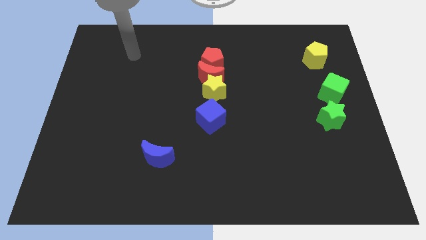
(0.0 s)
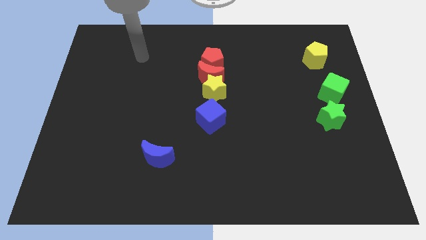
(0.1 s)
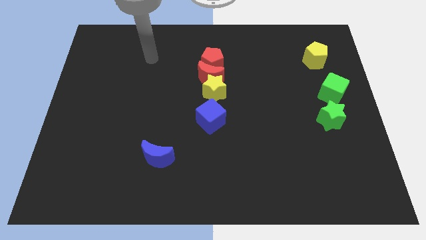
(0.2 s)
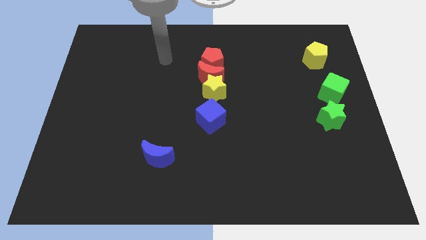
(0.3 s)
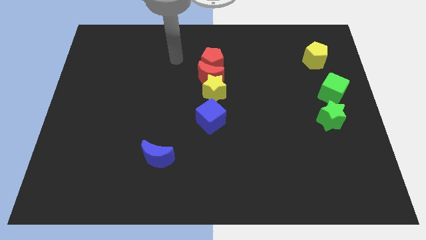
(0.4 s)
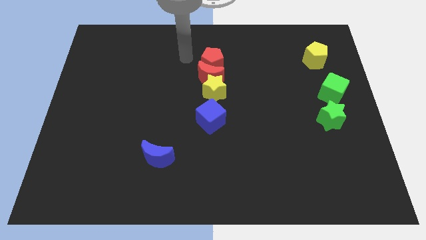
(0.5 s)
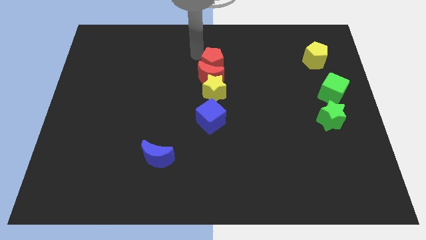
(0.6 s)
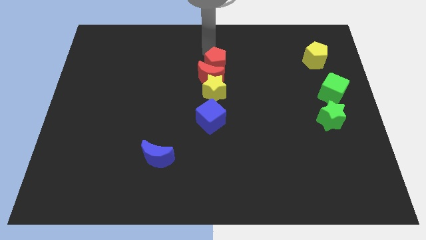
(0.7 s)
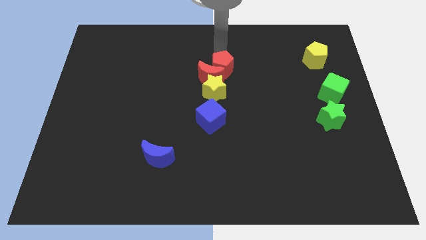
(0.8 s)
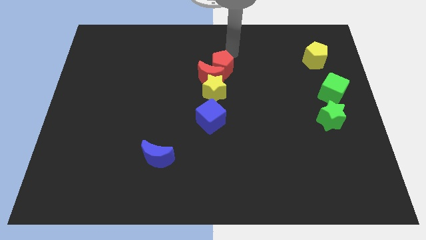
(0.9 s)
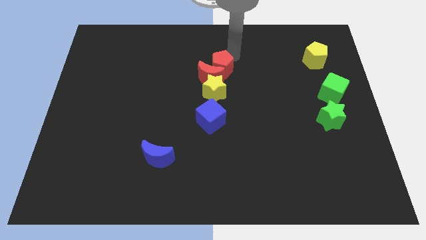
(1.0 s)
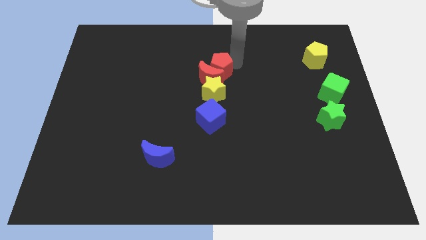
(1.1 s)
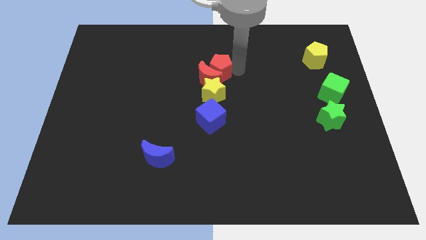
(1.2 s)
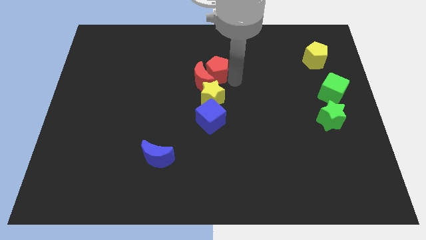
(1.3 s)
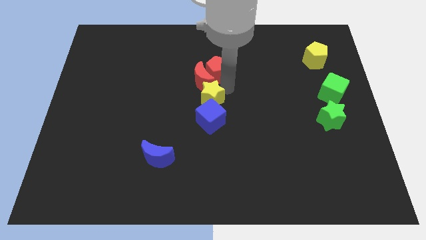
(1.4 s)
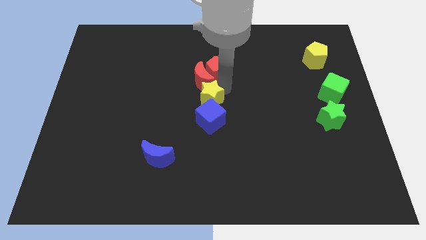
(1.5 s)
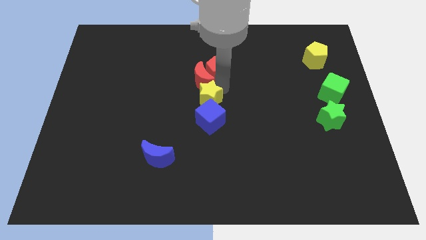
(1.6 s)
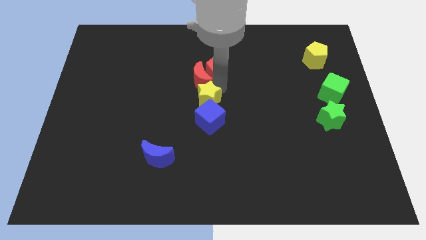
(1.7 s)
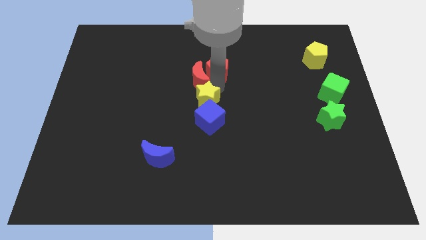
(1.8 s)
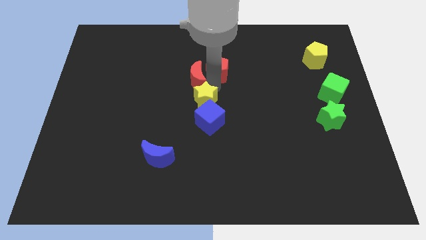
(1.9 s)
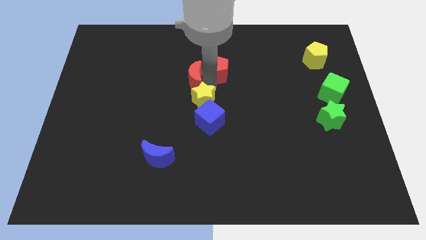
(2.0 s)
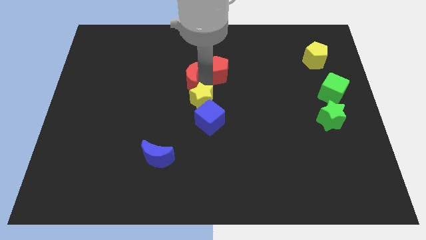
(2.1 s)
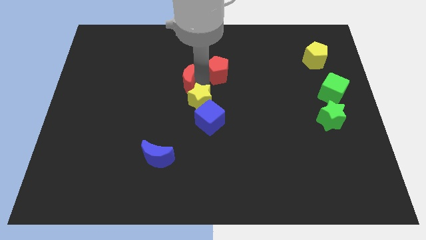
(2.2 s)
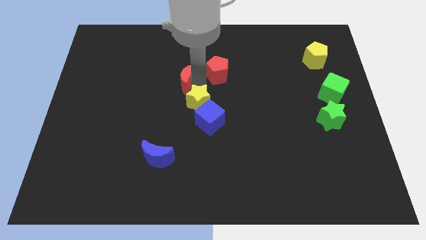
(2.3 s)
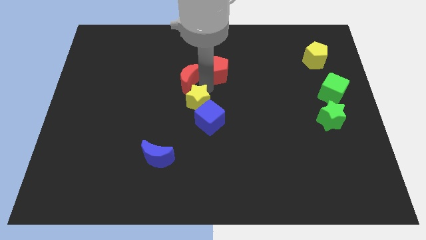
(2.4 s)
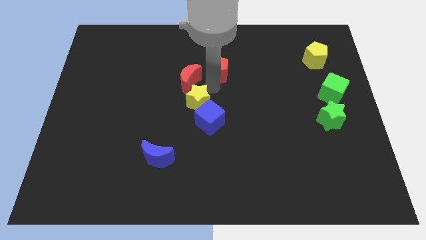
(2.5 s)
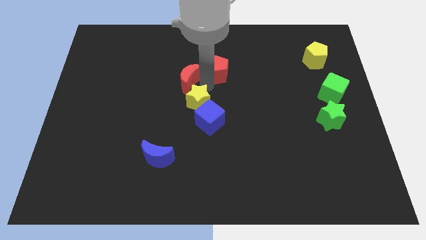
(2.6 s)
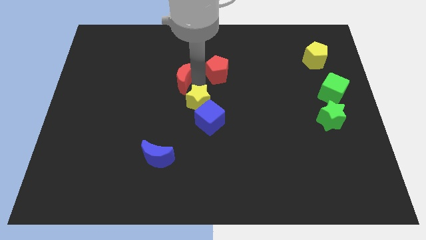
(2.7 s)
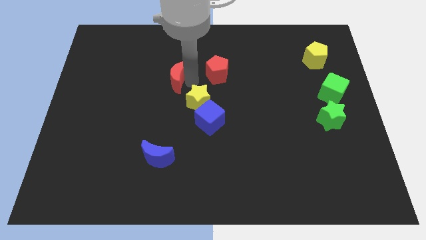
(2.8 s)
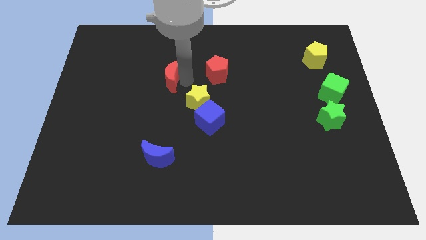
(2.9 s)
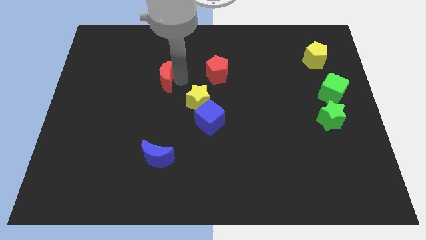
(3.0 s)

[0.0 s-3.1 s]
separate the red moon from the yellow star and red pentagon

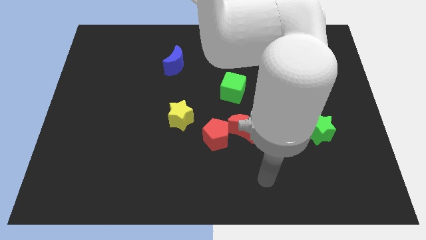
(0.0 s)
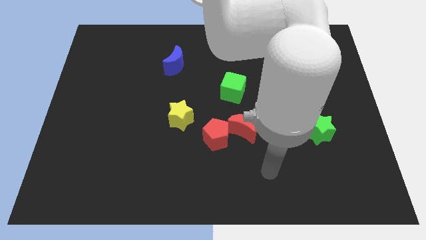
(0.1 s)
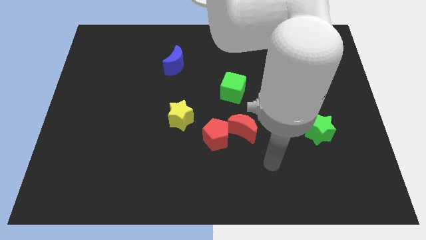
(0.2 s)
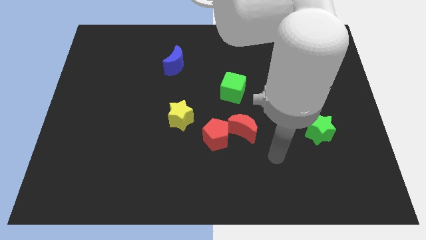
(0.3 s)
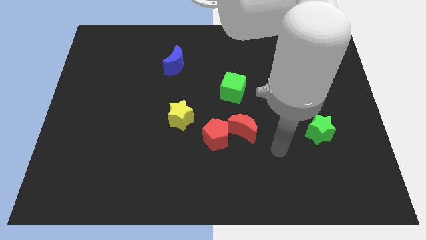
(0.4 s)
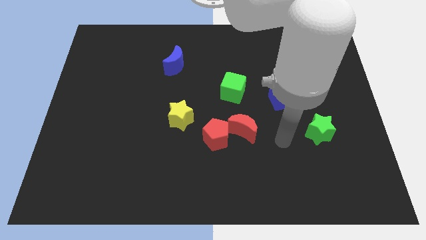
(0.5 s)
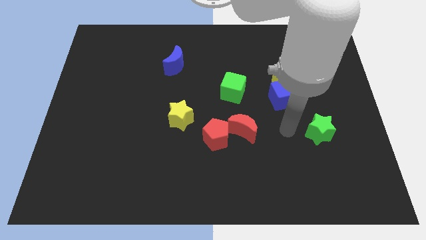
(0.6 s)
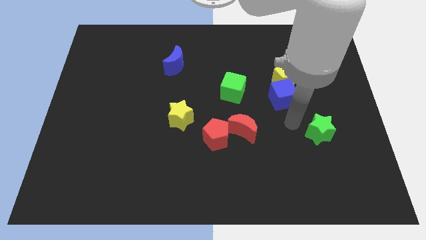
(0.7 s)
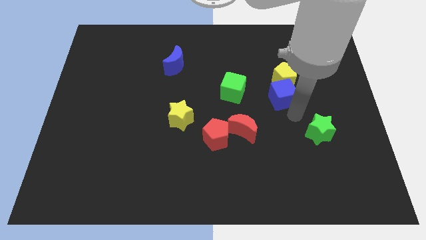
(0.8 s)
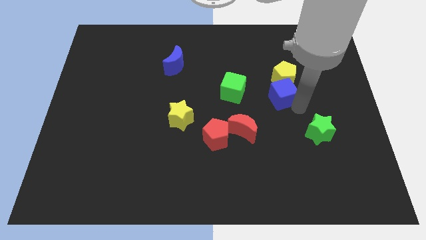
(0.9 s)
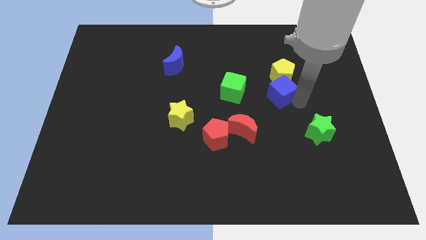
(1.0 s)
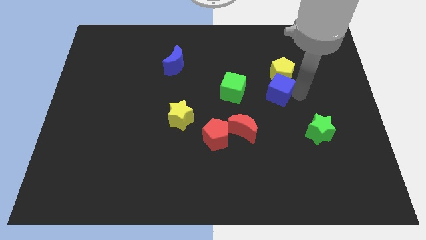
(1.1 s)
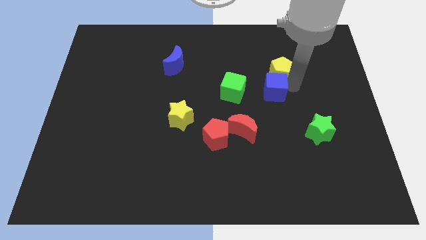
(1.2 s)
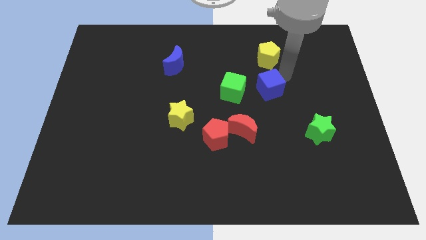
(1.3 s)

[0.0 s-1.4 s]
separate the blue cube from the yellow pentagon

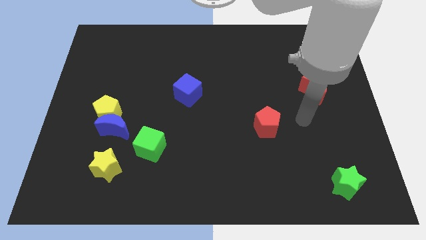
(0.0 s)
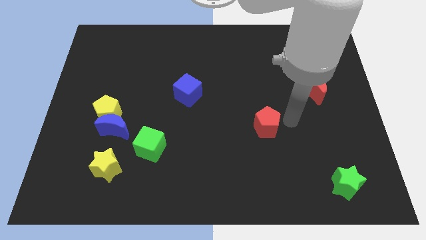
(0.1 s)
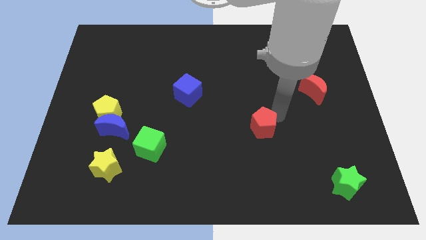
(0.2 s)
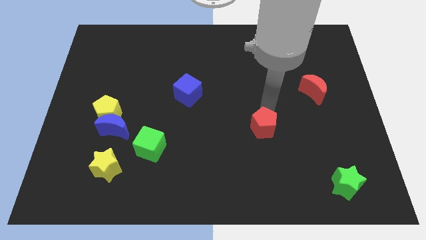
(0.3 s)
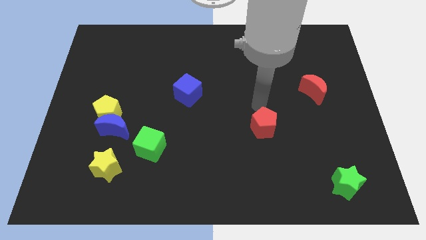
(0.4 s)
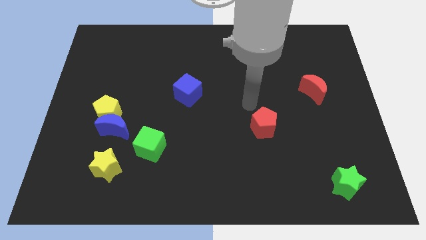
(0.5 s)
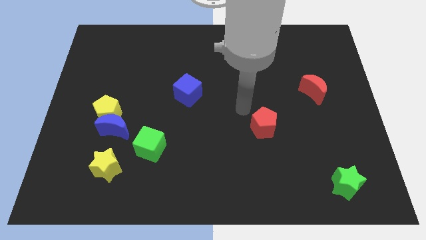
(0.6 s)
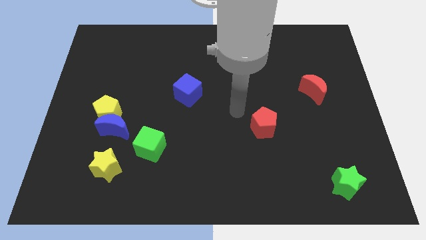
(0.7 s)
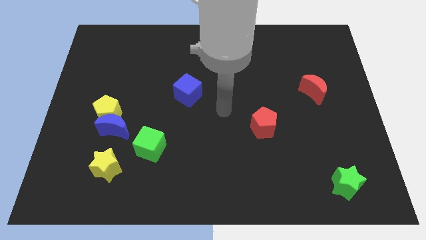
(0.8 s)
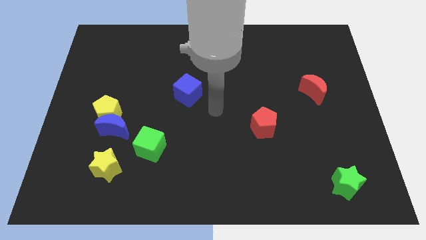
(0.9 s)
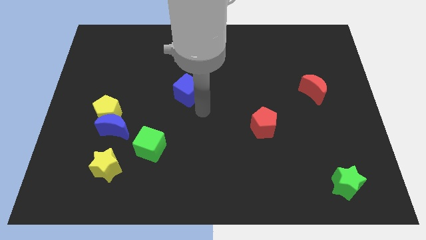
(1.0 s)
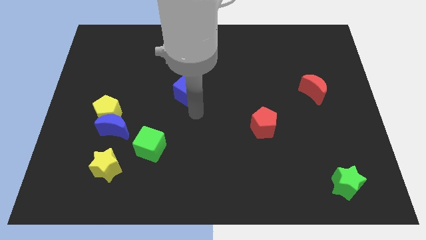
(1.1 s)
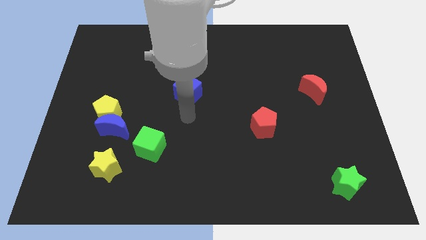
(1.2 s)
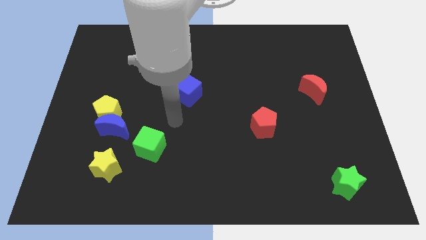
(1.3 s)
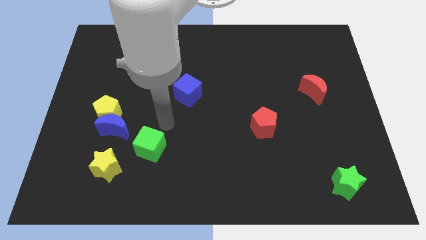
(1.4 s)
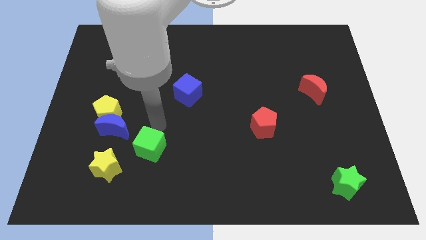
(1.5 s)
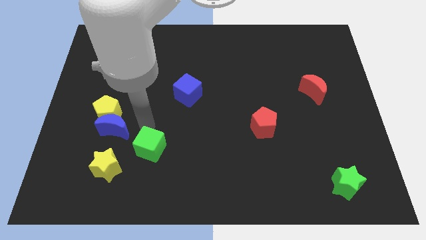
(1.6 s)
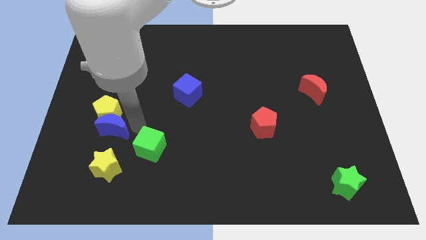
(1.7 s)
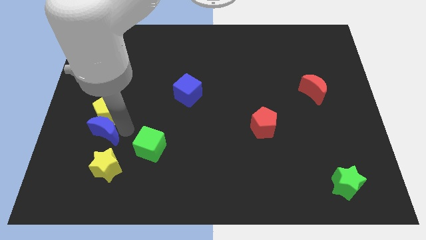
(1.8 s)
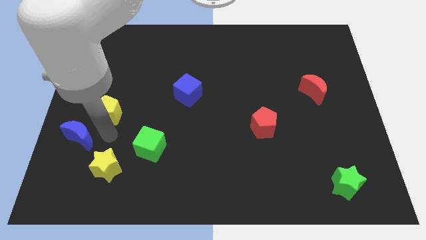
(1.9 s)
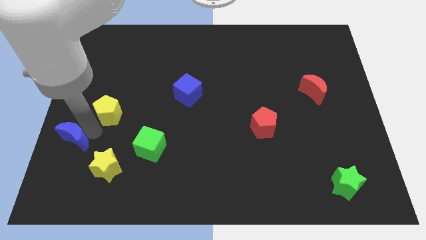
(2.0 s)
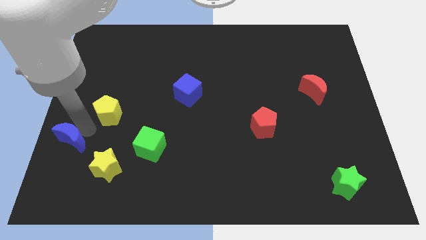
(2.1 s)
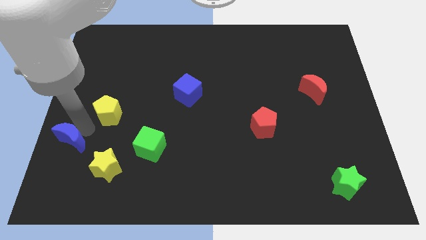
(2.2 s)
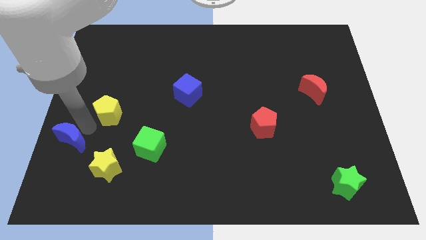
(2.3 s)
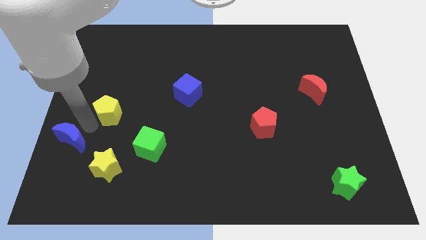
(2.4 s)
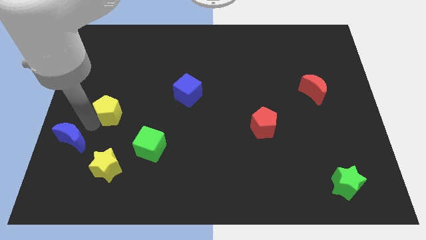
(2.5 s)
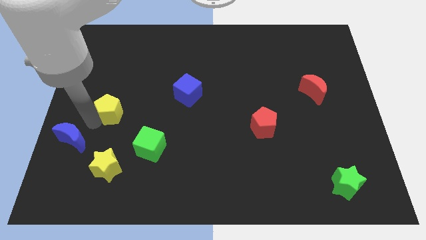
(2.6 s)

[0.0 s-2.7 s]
separate the yellow pentagon from the blue moon

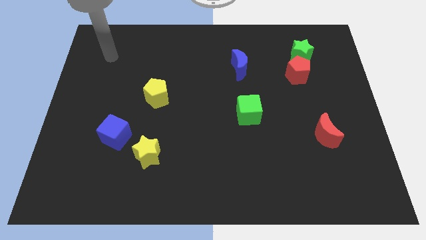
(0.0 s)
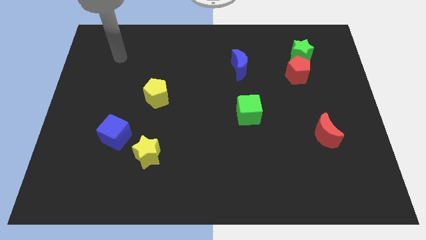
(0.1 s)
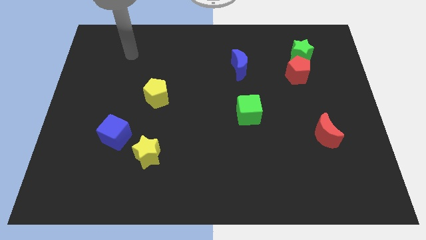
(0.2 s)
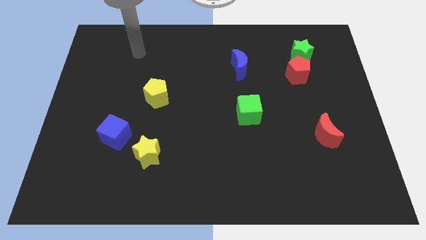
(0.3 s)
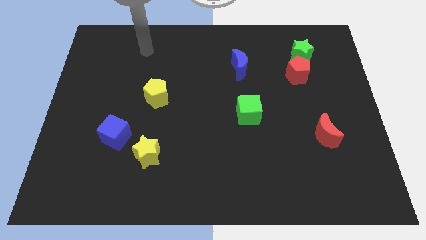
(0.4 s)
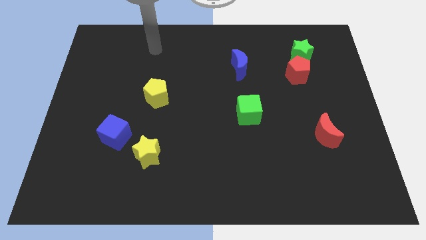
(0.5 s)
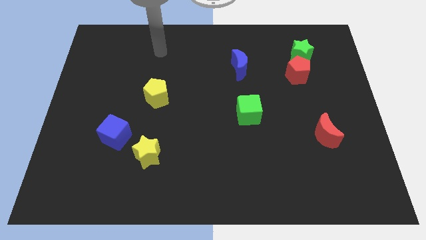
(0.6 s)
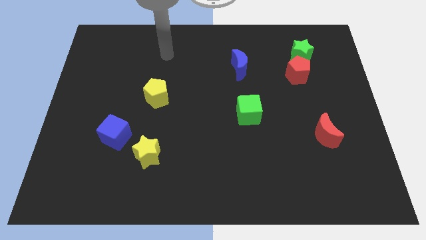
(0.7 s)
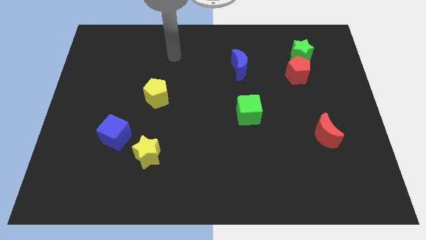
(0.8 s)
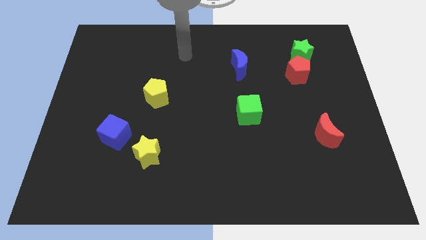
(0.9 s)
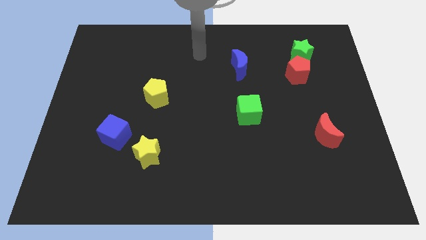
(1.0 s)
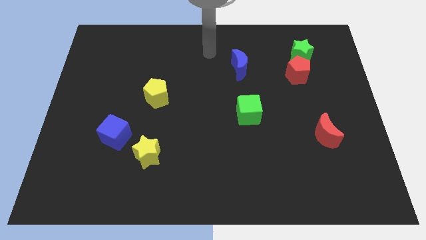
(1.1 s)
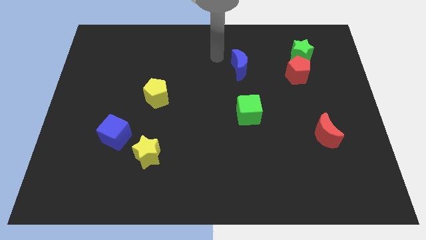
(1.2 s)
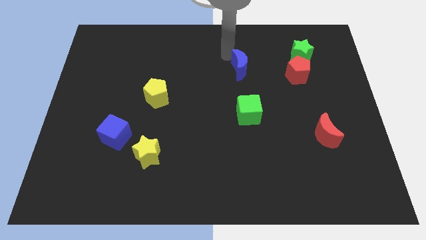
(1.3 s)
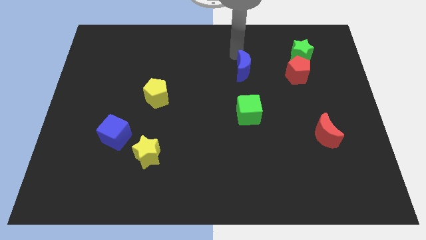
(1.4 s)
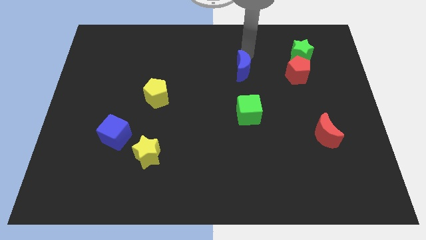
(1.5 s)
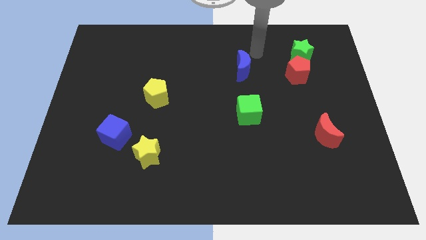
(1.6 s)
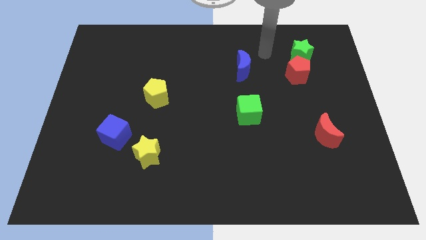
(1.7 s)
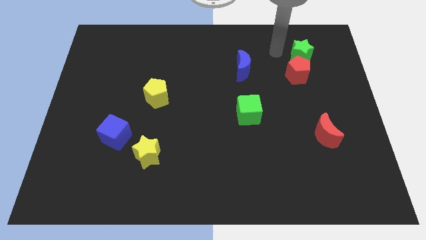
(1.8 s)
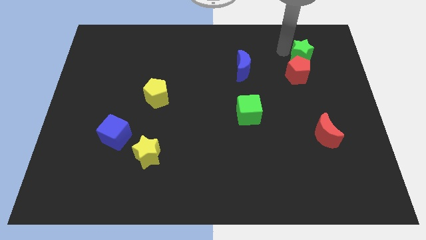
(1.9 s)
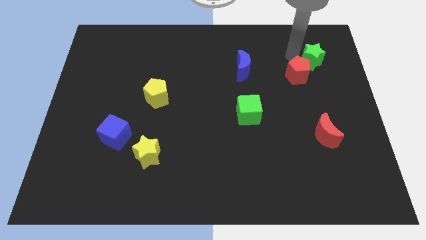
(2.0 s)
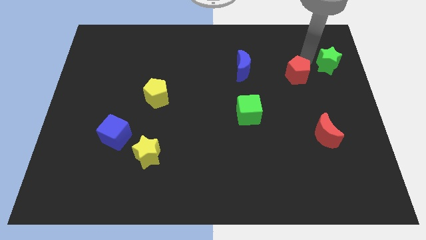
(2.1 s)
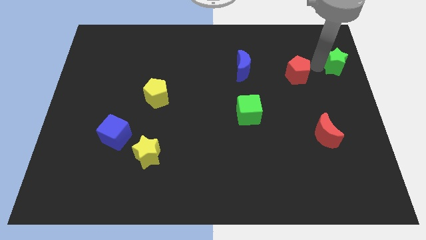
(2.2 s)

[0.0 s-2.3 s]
separate the red pentagon from the green star
